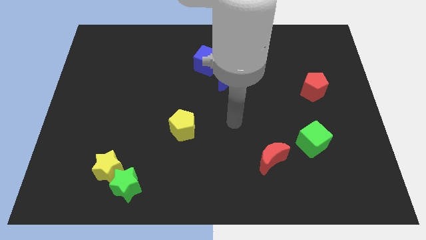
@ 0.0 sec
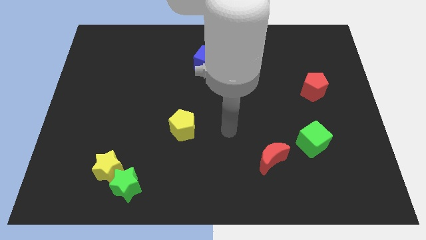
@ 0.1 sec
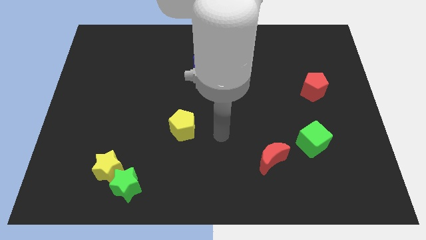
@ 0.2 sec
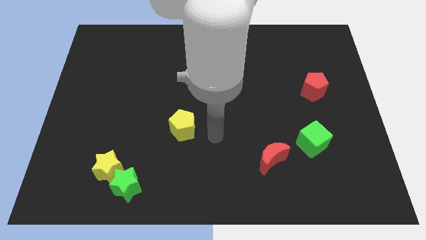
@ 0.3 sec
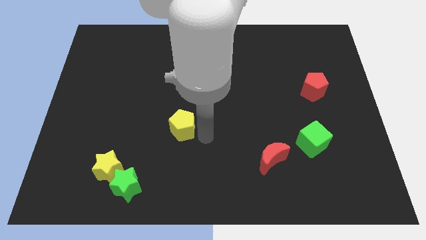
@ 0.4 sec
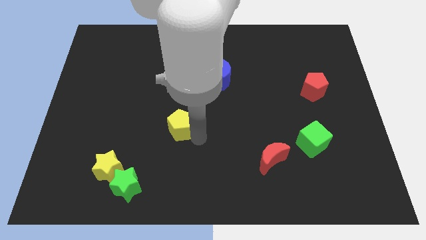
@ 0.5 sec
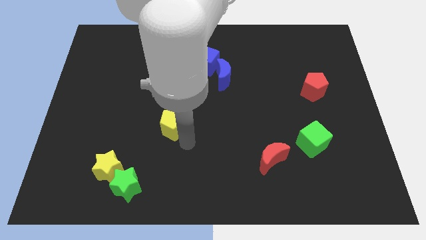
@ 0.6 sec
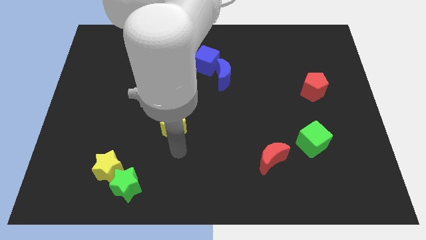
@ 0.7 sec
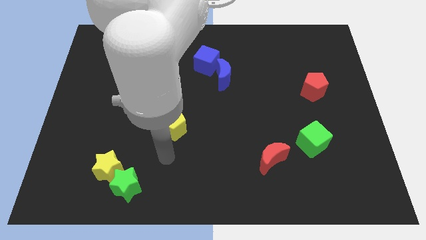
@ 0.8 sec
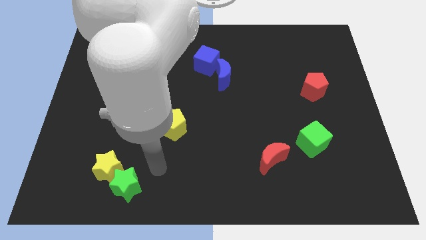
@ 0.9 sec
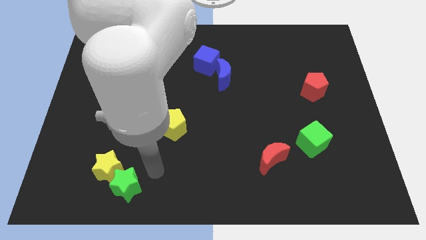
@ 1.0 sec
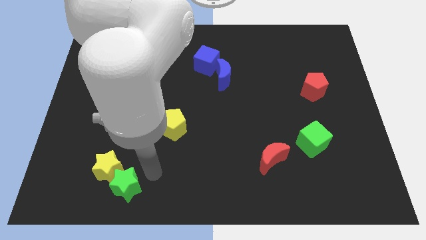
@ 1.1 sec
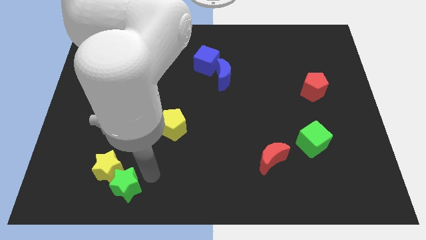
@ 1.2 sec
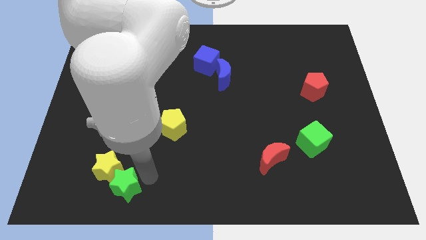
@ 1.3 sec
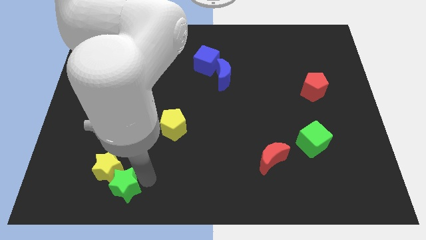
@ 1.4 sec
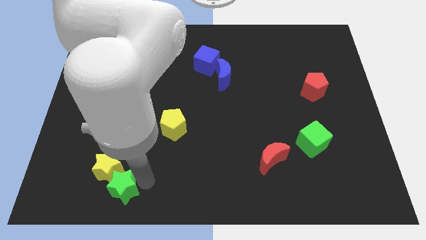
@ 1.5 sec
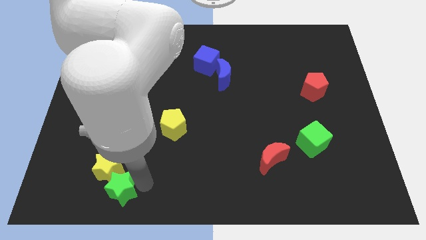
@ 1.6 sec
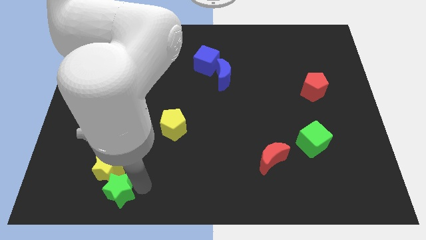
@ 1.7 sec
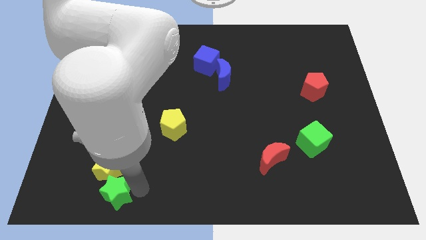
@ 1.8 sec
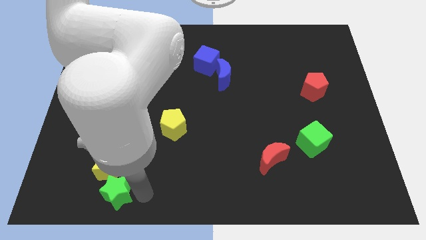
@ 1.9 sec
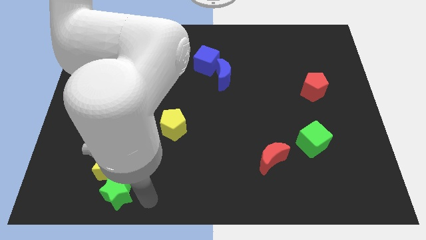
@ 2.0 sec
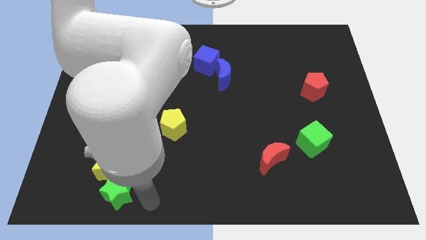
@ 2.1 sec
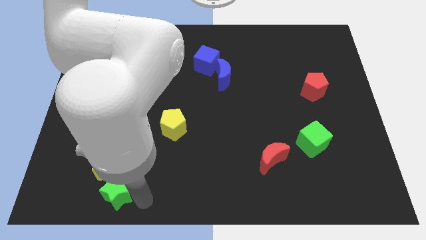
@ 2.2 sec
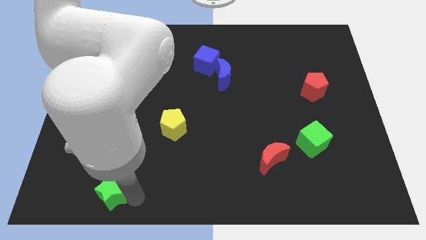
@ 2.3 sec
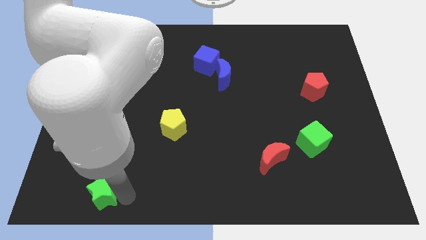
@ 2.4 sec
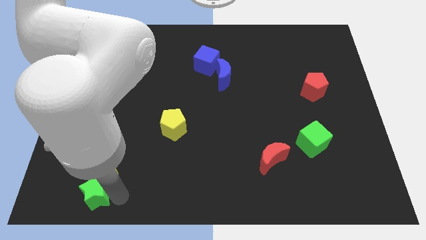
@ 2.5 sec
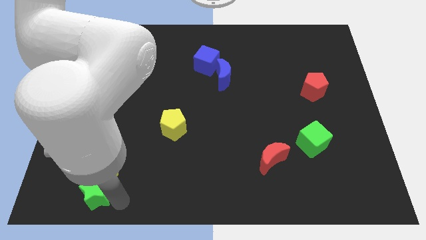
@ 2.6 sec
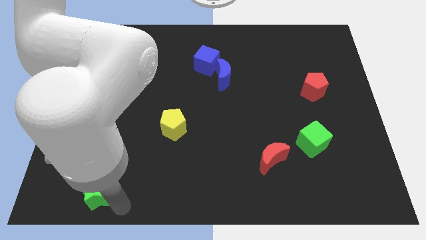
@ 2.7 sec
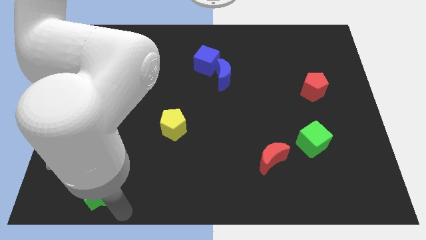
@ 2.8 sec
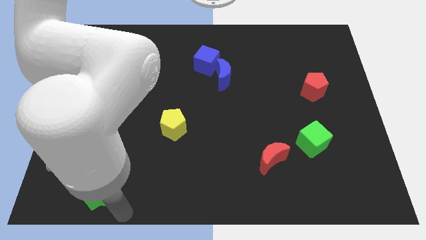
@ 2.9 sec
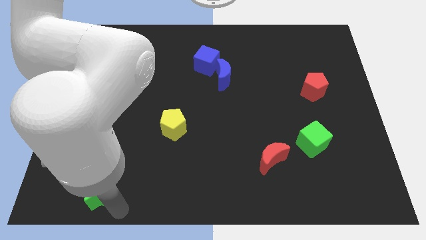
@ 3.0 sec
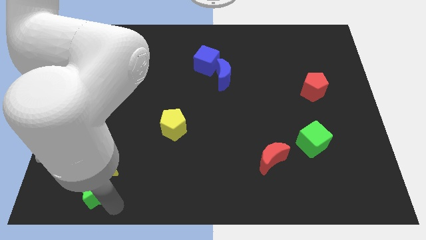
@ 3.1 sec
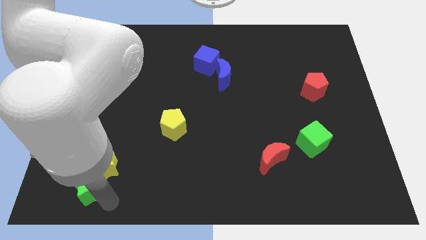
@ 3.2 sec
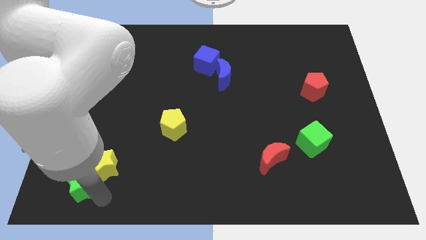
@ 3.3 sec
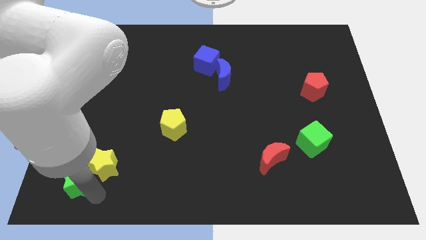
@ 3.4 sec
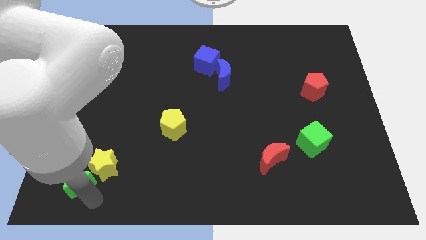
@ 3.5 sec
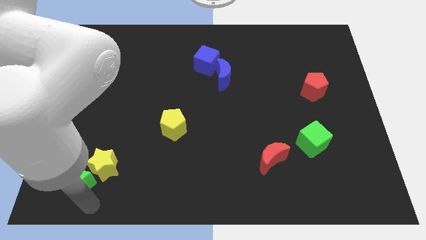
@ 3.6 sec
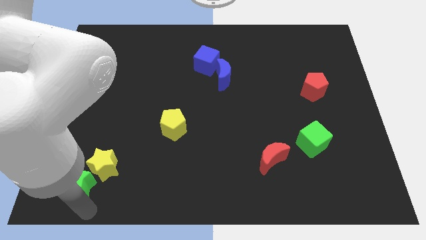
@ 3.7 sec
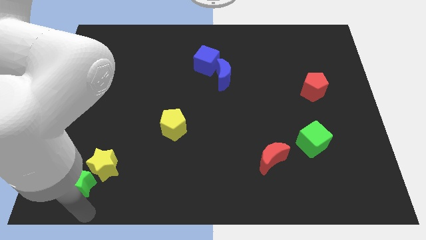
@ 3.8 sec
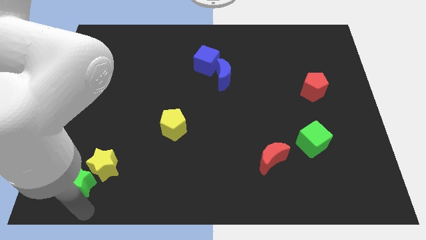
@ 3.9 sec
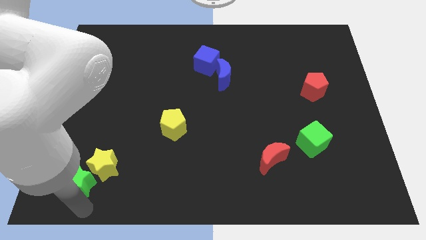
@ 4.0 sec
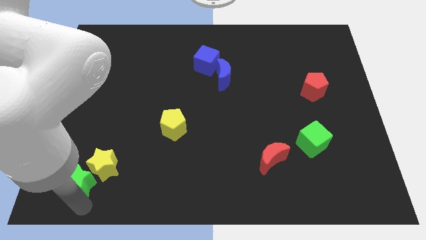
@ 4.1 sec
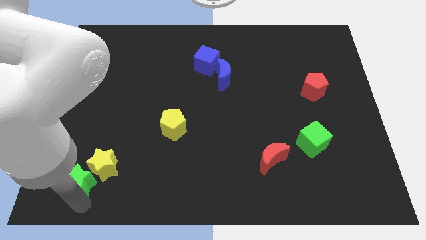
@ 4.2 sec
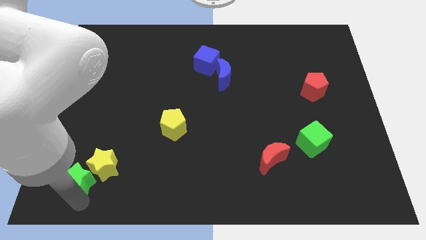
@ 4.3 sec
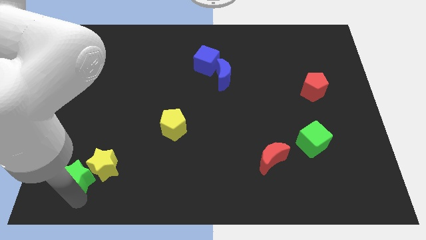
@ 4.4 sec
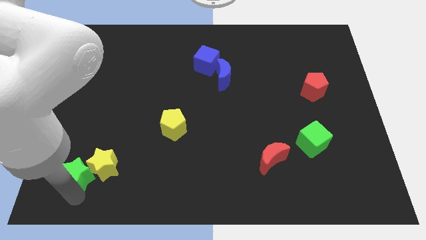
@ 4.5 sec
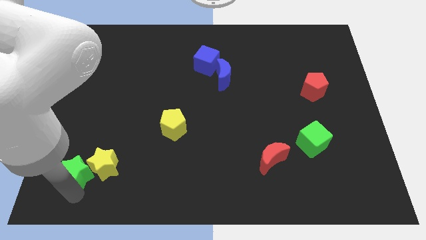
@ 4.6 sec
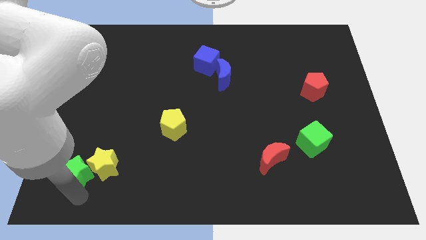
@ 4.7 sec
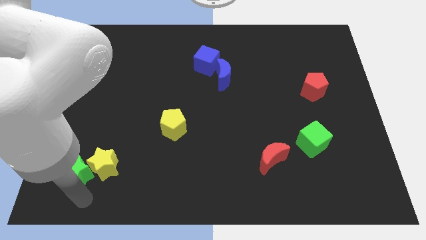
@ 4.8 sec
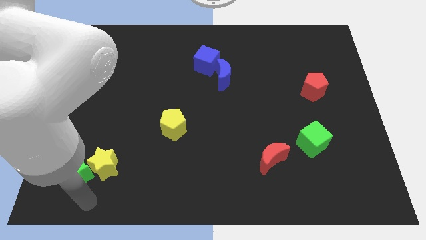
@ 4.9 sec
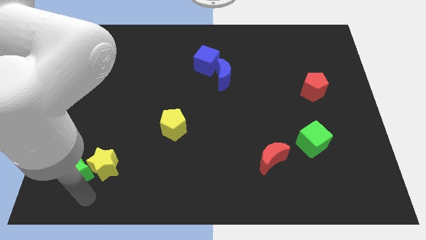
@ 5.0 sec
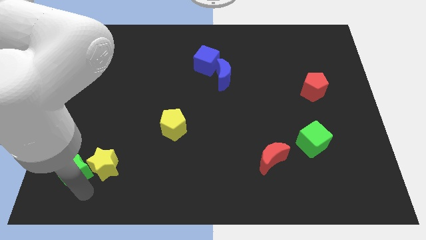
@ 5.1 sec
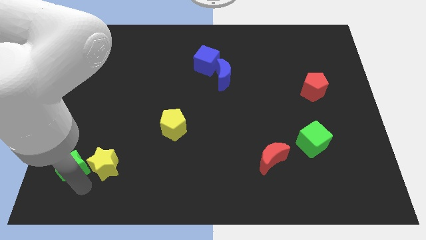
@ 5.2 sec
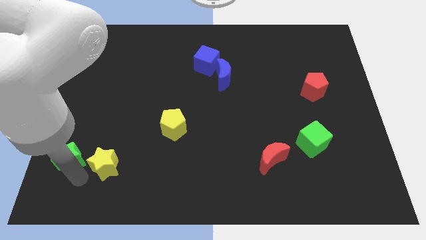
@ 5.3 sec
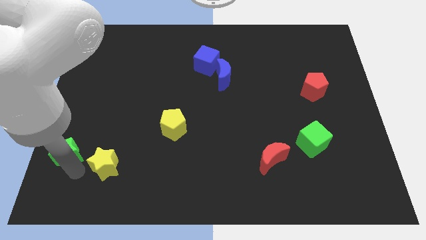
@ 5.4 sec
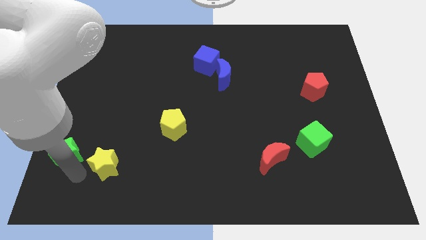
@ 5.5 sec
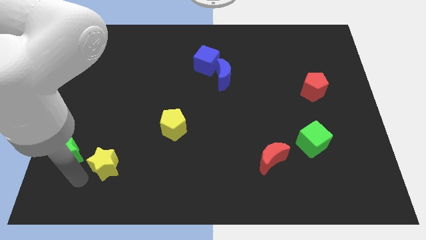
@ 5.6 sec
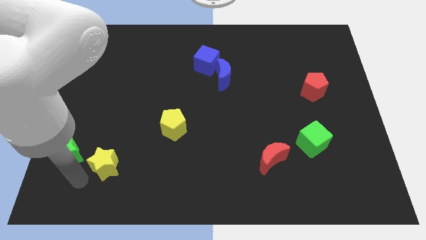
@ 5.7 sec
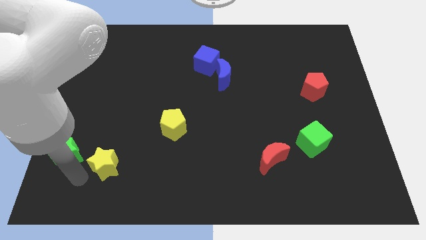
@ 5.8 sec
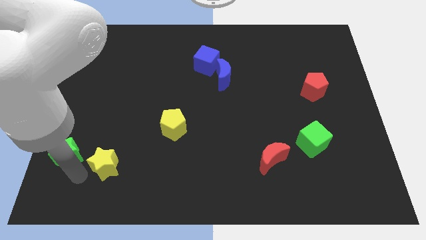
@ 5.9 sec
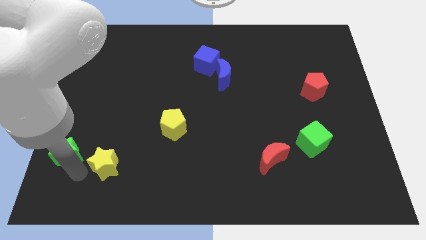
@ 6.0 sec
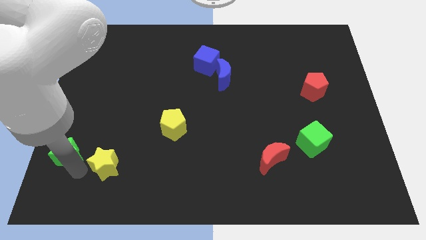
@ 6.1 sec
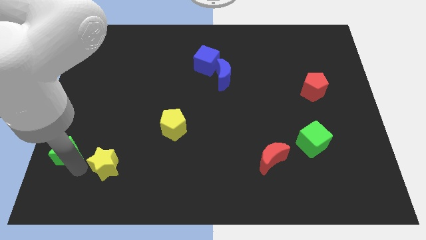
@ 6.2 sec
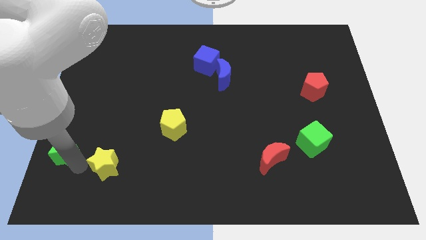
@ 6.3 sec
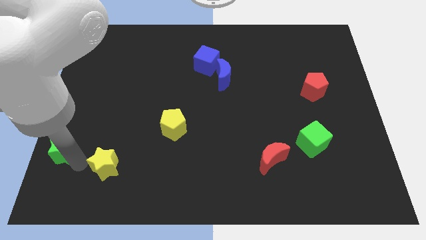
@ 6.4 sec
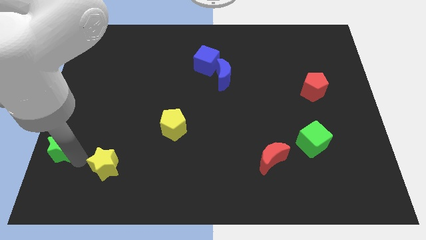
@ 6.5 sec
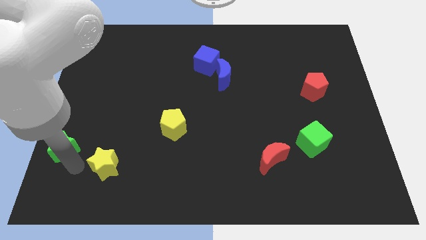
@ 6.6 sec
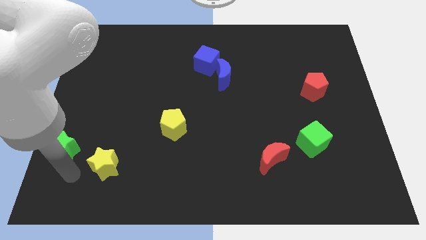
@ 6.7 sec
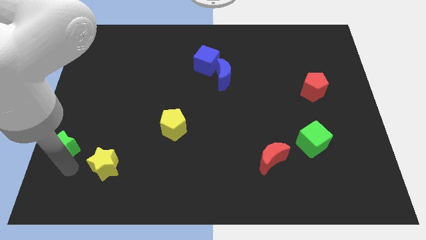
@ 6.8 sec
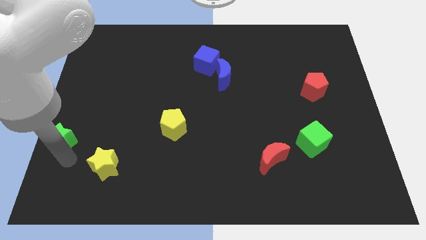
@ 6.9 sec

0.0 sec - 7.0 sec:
move the green star to the center left
